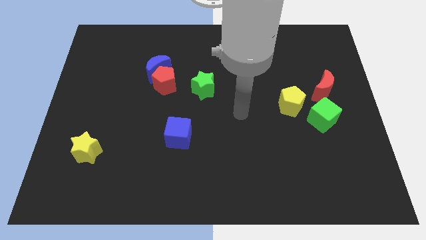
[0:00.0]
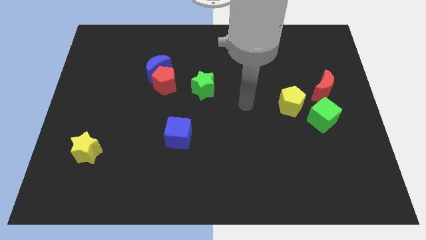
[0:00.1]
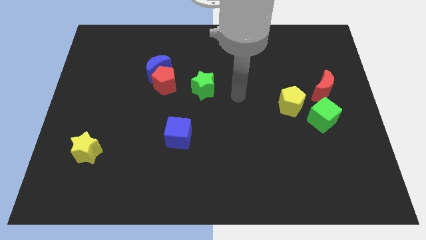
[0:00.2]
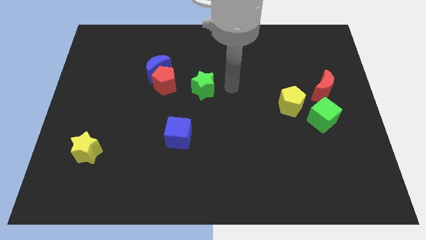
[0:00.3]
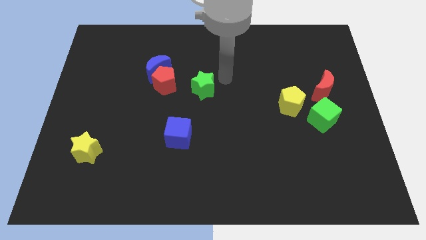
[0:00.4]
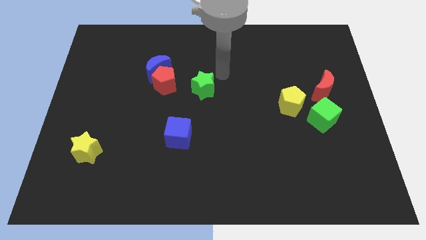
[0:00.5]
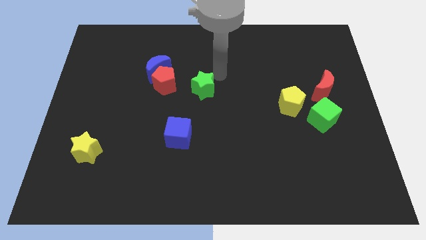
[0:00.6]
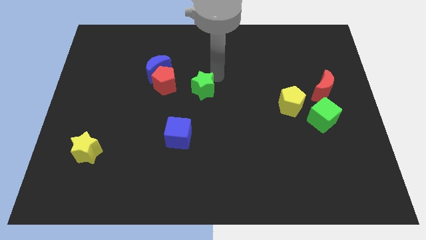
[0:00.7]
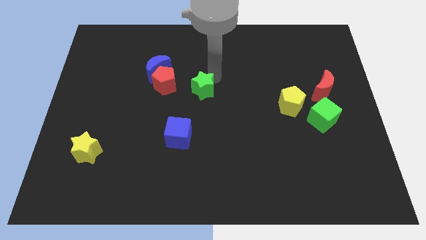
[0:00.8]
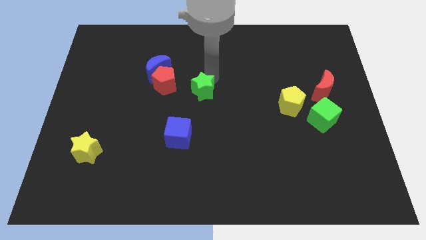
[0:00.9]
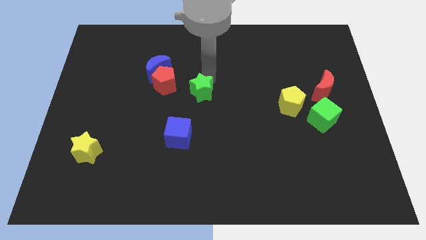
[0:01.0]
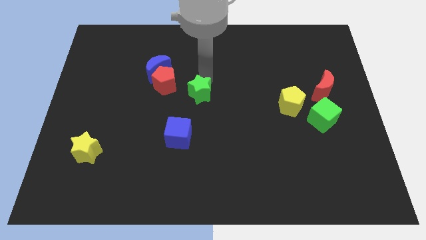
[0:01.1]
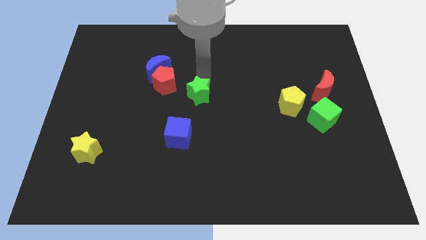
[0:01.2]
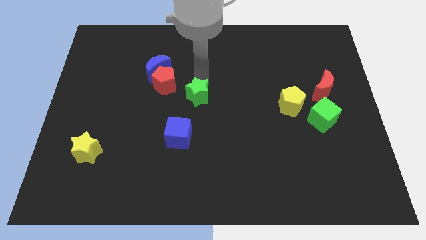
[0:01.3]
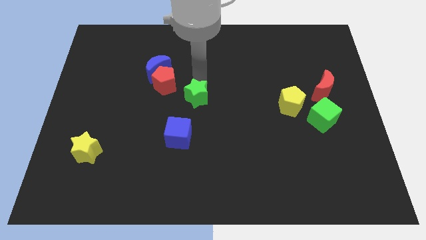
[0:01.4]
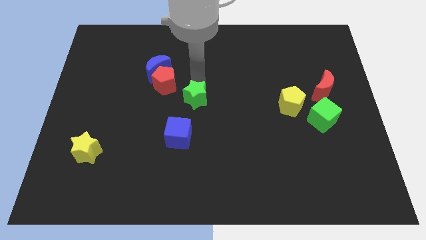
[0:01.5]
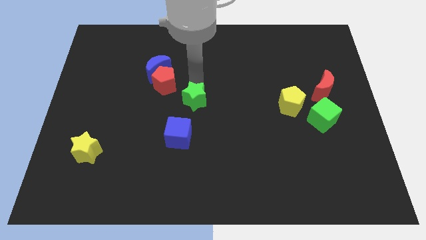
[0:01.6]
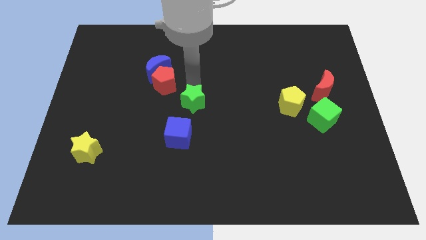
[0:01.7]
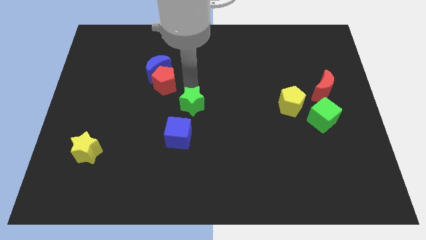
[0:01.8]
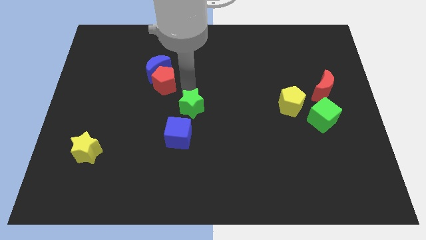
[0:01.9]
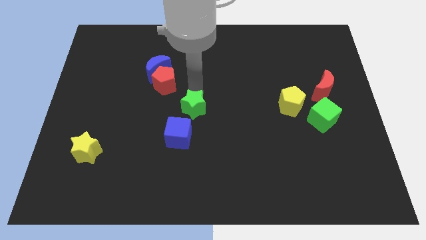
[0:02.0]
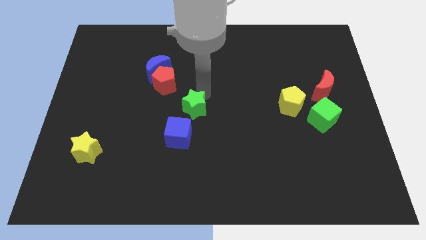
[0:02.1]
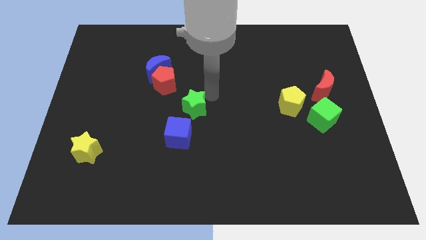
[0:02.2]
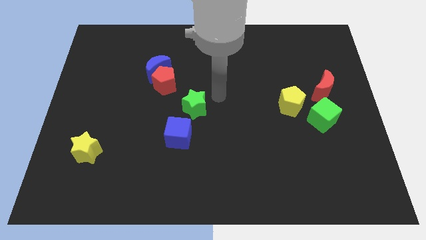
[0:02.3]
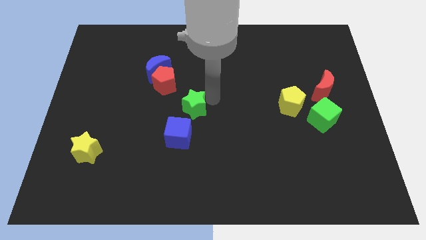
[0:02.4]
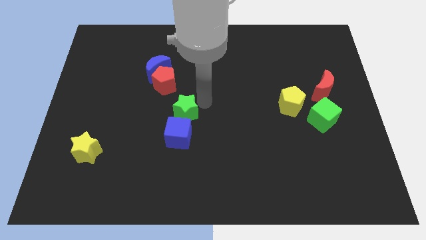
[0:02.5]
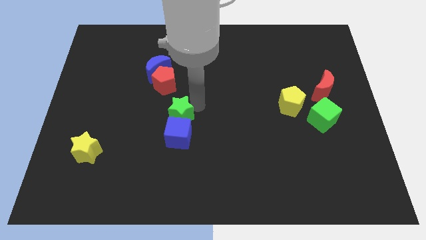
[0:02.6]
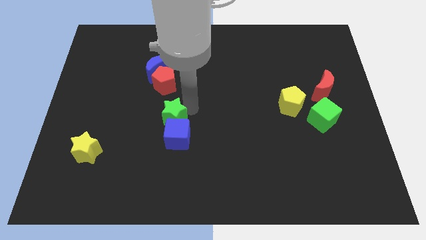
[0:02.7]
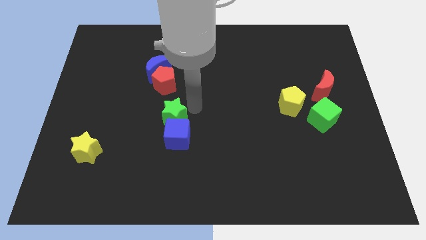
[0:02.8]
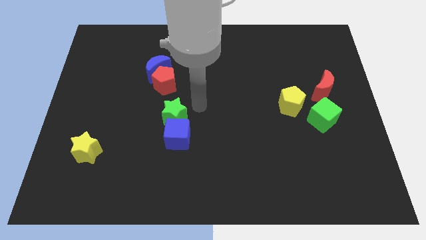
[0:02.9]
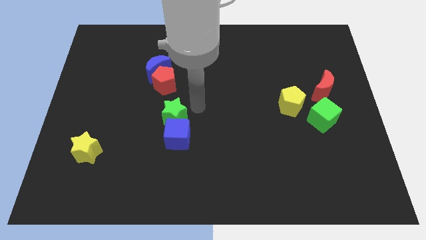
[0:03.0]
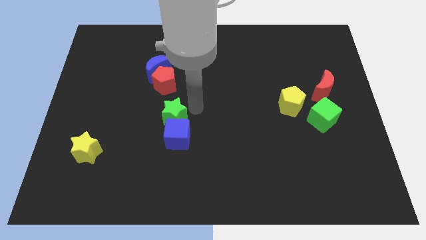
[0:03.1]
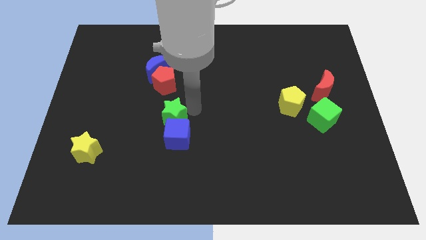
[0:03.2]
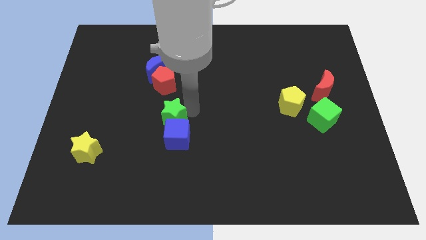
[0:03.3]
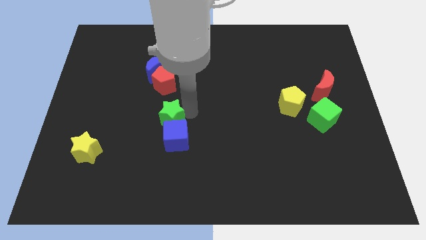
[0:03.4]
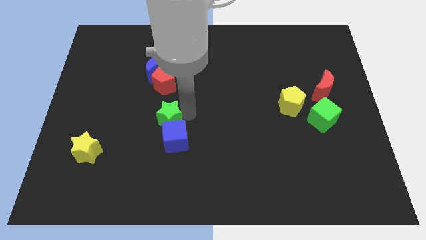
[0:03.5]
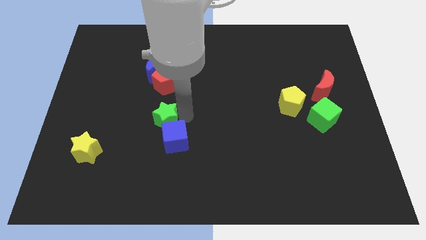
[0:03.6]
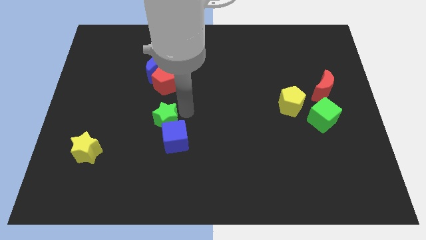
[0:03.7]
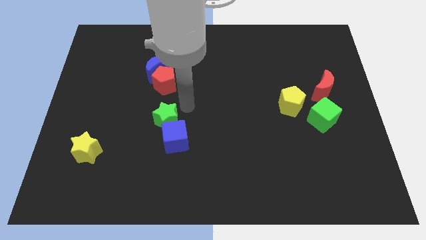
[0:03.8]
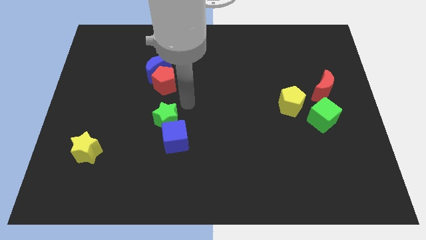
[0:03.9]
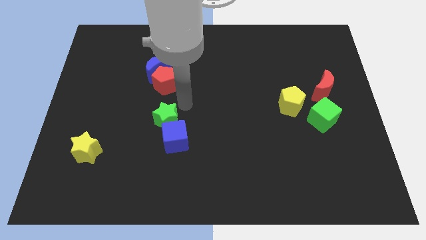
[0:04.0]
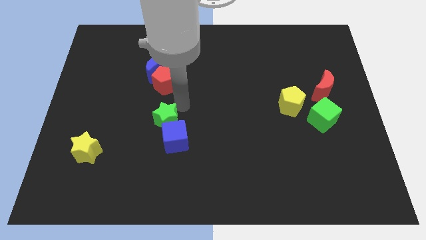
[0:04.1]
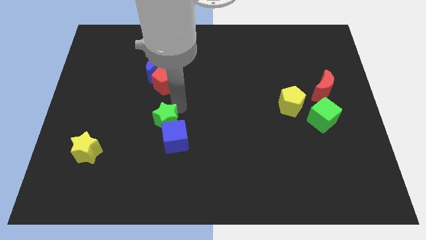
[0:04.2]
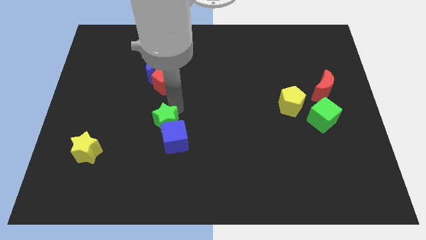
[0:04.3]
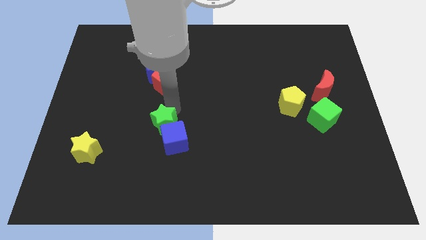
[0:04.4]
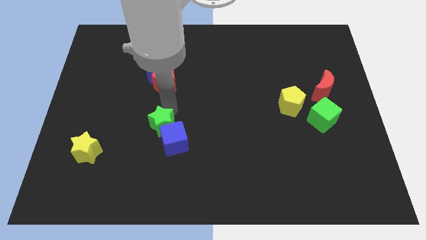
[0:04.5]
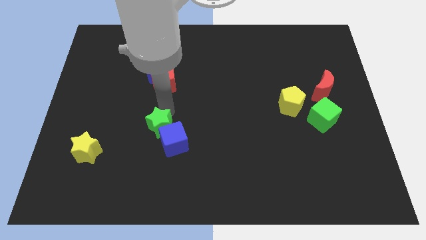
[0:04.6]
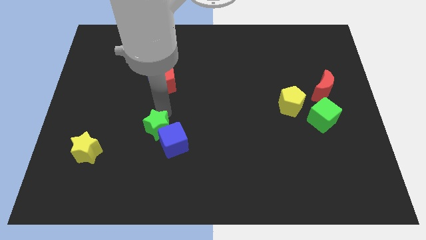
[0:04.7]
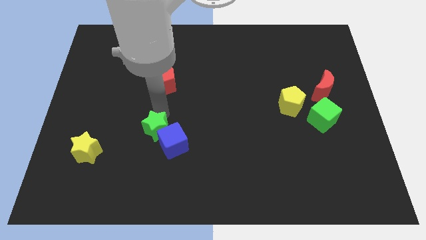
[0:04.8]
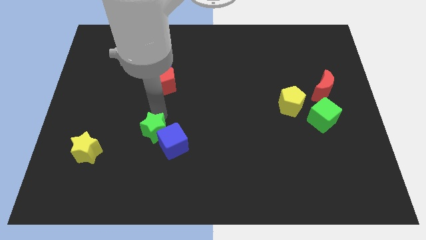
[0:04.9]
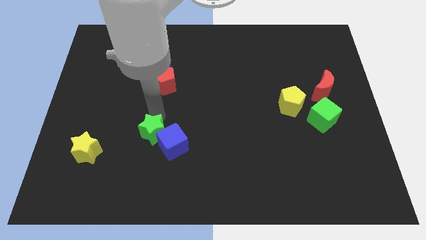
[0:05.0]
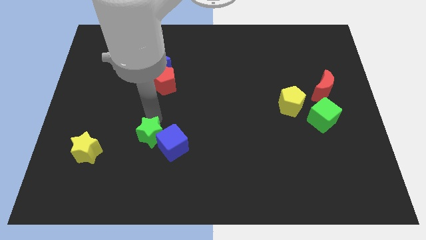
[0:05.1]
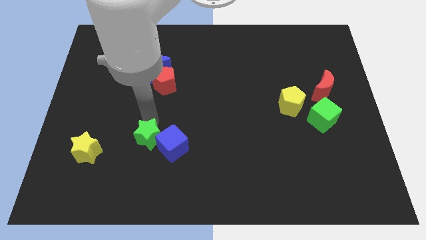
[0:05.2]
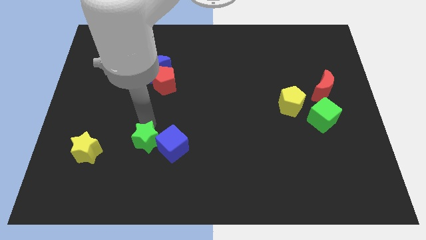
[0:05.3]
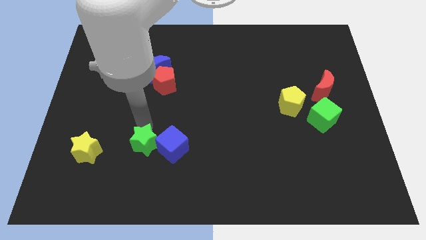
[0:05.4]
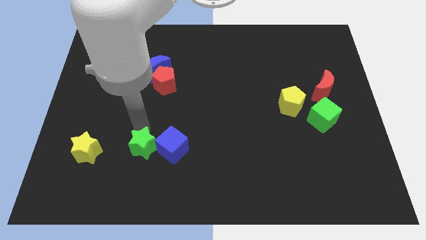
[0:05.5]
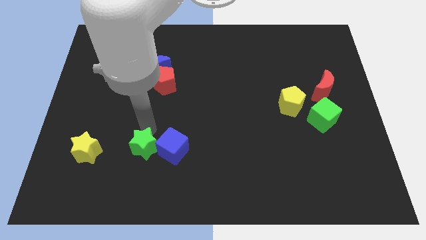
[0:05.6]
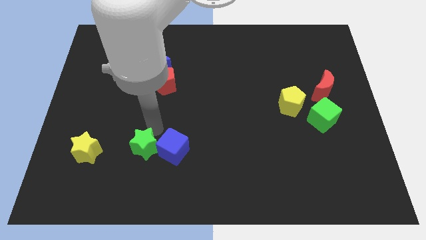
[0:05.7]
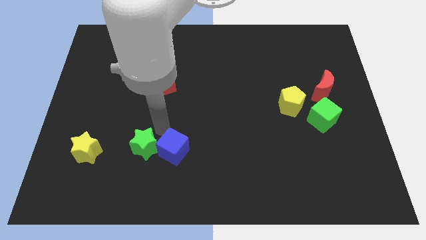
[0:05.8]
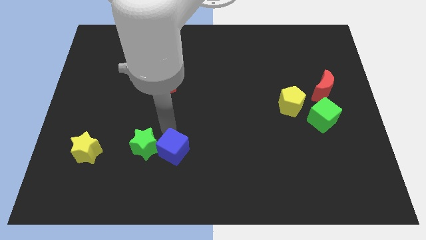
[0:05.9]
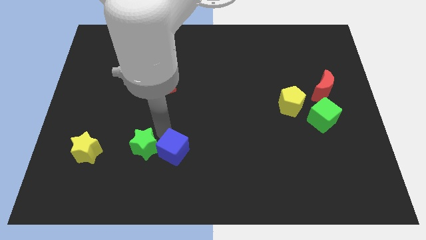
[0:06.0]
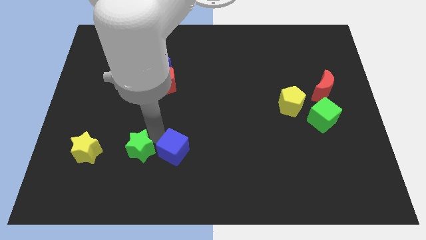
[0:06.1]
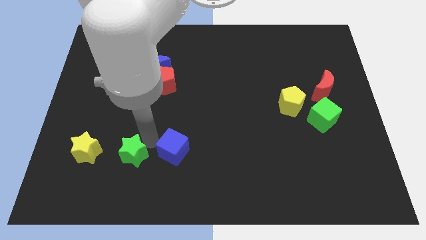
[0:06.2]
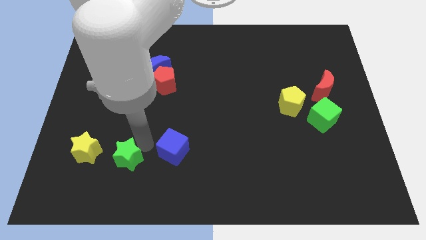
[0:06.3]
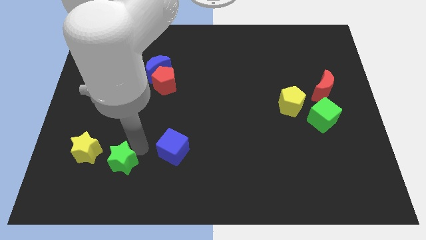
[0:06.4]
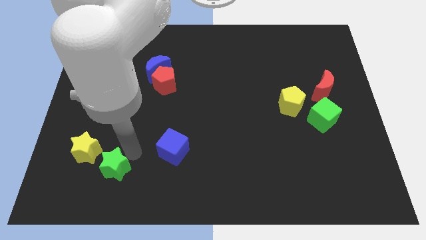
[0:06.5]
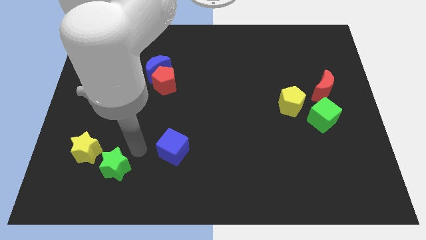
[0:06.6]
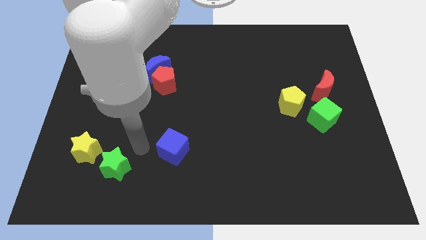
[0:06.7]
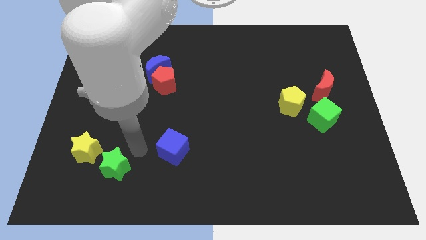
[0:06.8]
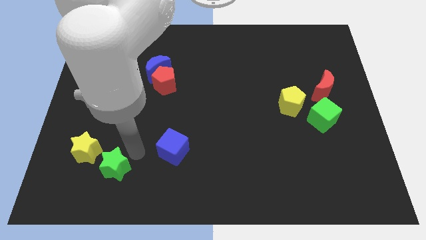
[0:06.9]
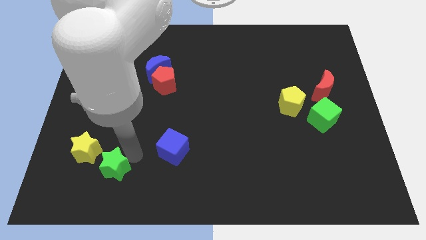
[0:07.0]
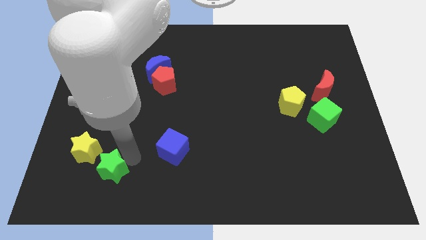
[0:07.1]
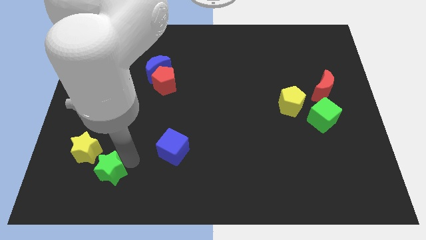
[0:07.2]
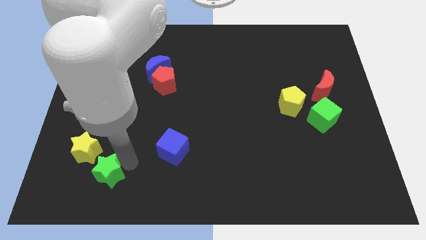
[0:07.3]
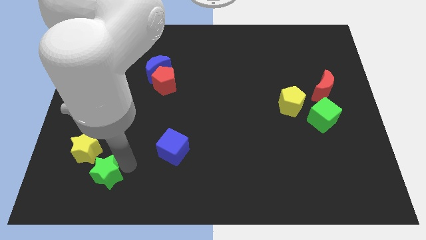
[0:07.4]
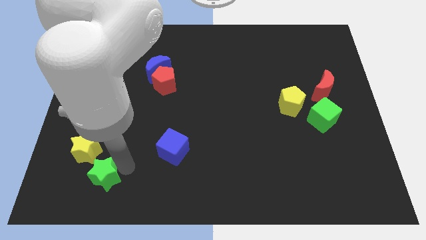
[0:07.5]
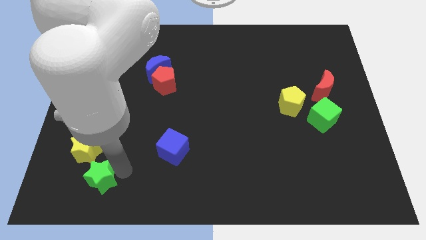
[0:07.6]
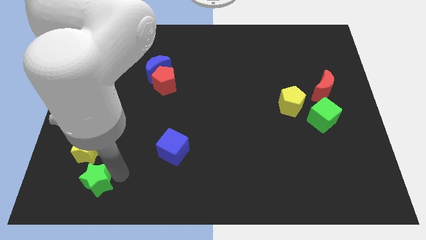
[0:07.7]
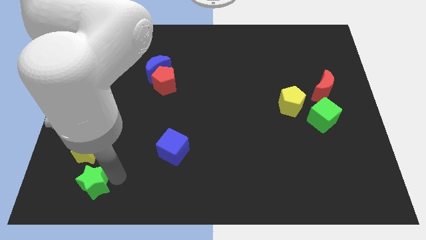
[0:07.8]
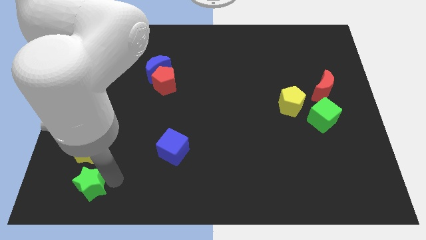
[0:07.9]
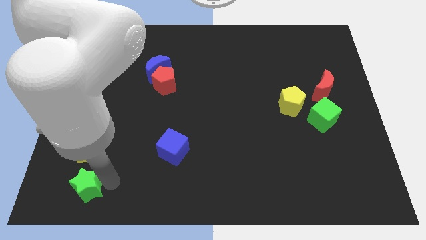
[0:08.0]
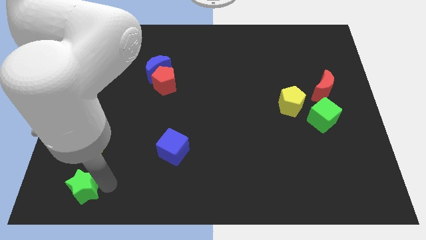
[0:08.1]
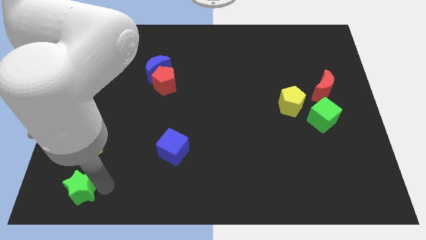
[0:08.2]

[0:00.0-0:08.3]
put the green star to the bottom left corner
